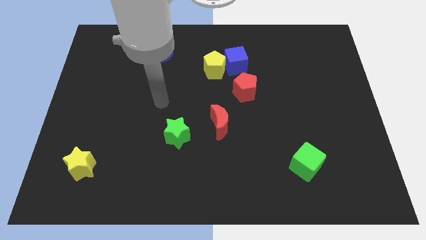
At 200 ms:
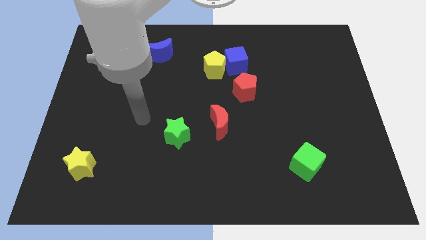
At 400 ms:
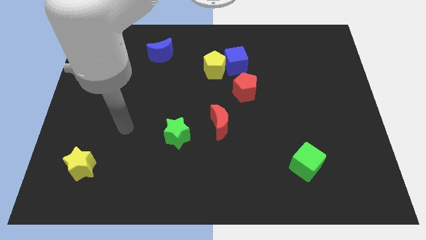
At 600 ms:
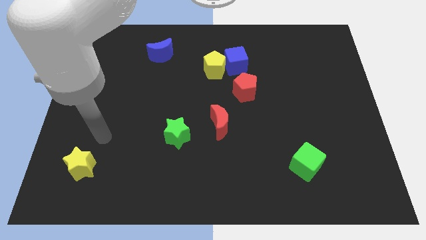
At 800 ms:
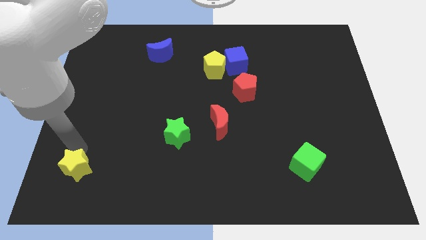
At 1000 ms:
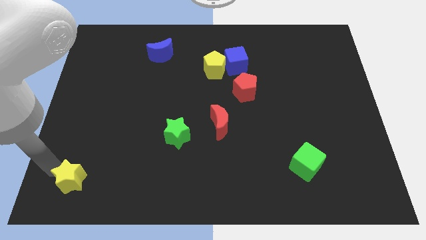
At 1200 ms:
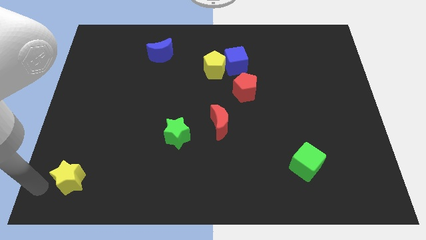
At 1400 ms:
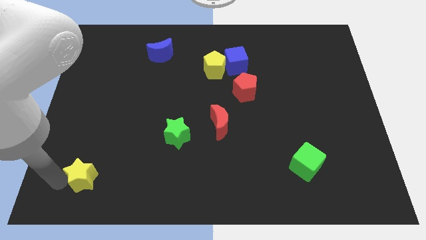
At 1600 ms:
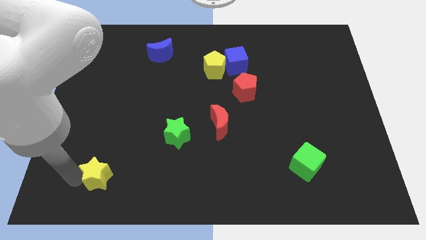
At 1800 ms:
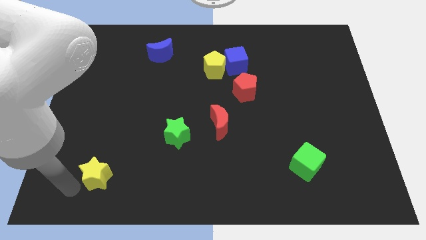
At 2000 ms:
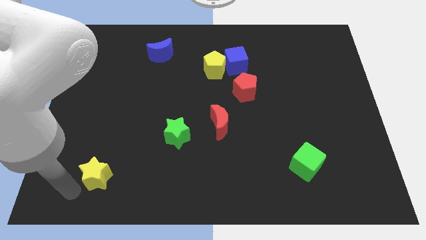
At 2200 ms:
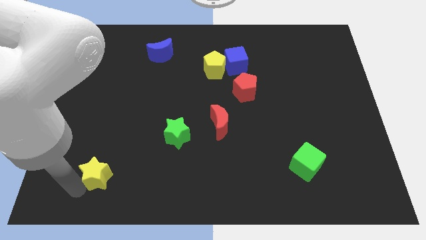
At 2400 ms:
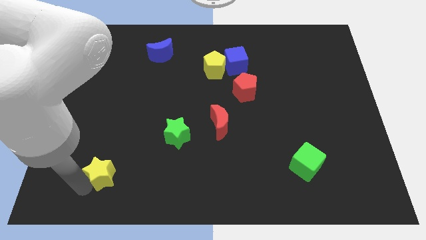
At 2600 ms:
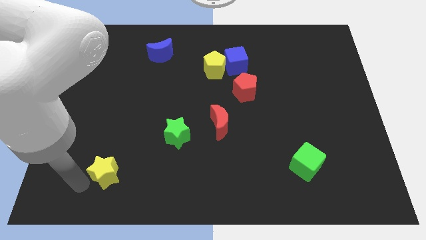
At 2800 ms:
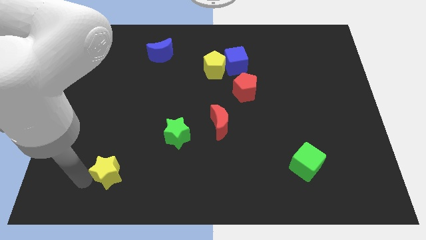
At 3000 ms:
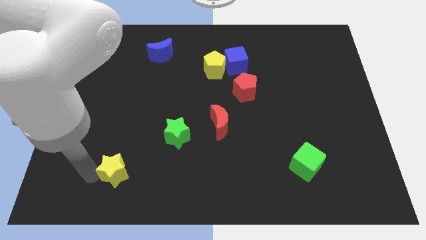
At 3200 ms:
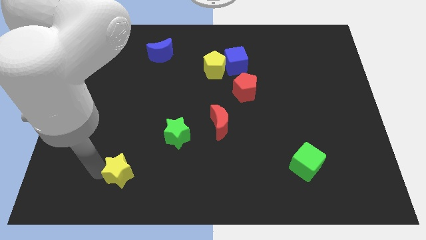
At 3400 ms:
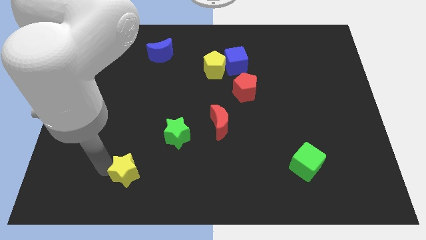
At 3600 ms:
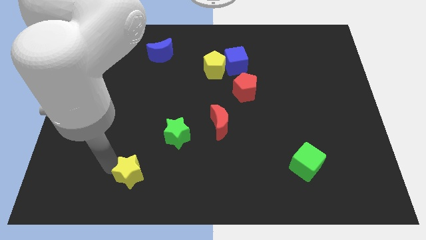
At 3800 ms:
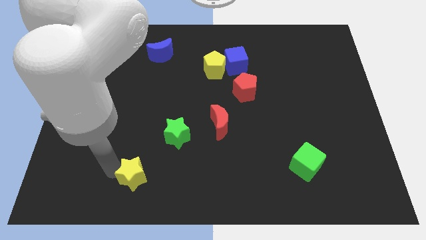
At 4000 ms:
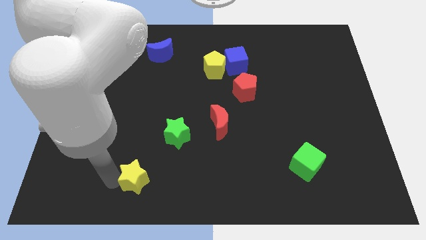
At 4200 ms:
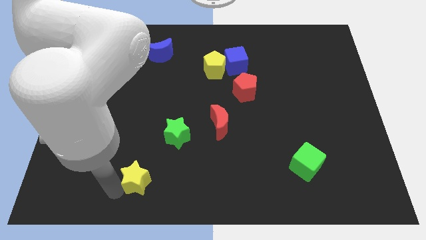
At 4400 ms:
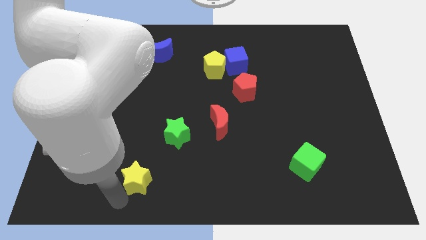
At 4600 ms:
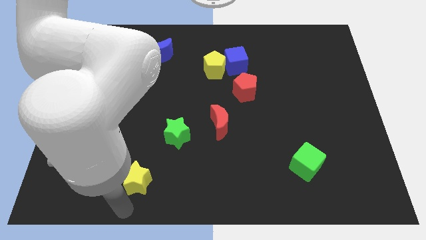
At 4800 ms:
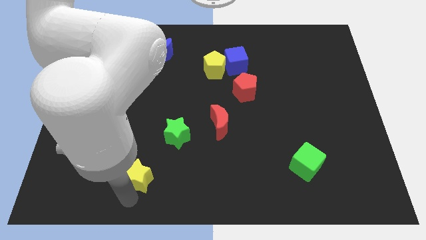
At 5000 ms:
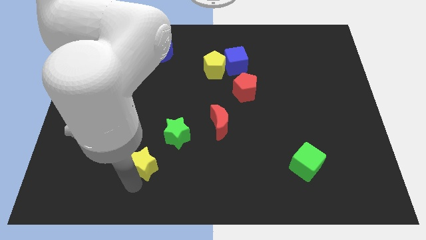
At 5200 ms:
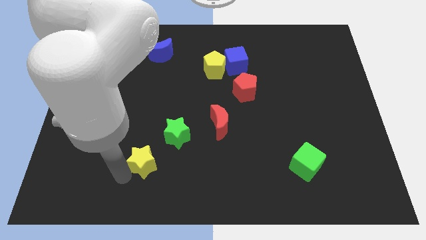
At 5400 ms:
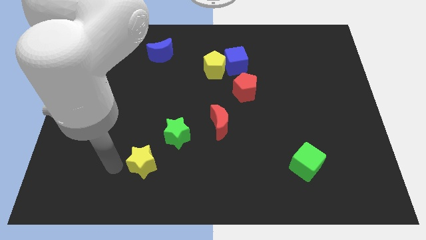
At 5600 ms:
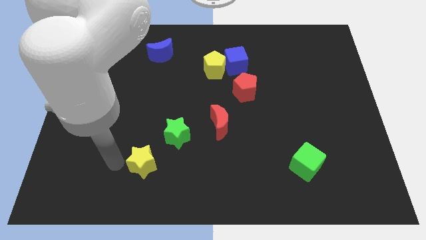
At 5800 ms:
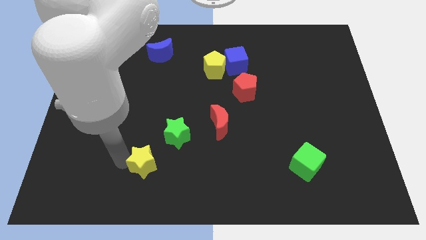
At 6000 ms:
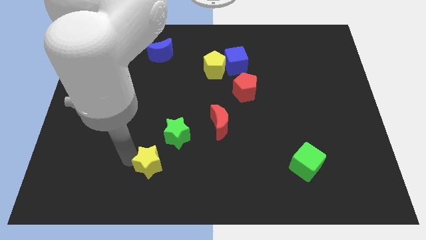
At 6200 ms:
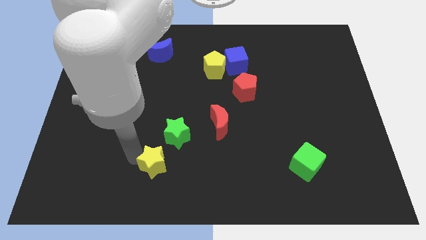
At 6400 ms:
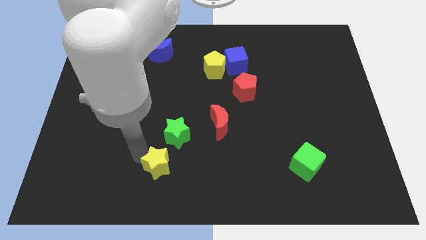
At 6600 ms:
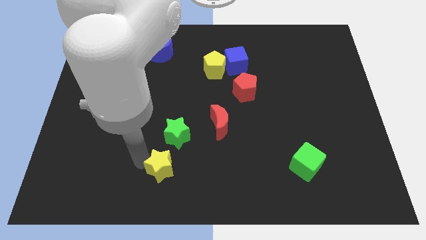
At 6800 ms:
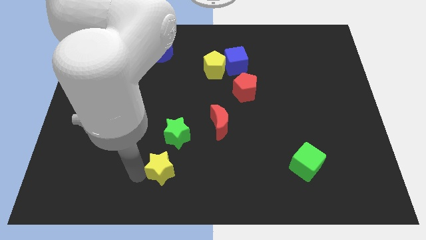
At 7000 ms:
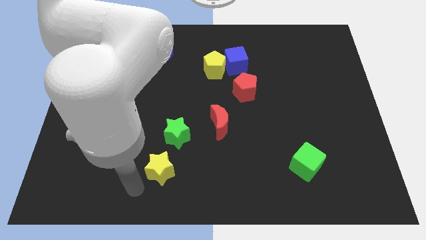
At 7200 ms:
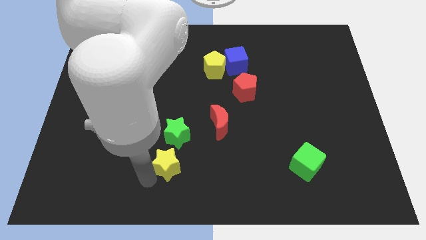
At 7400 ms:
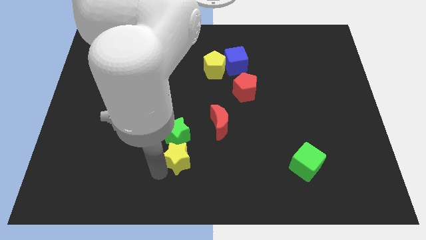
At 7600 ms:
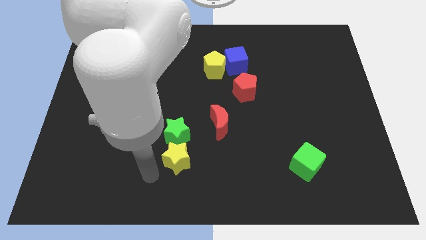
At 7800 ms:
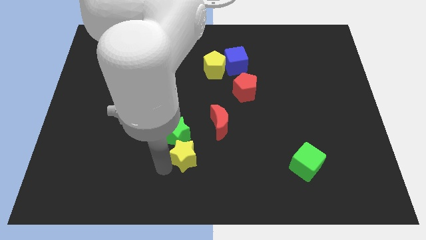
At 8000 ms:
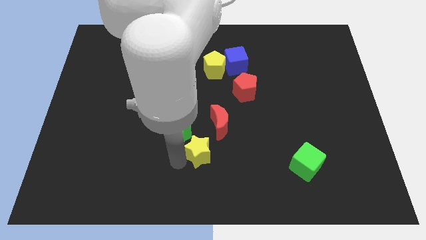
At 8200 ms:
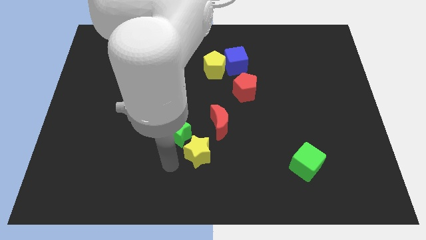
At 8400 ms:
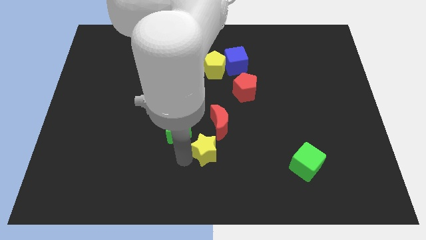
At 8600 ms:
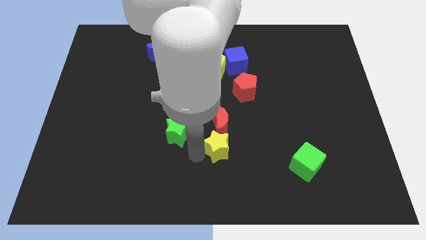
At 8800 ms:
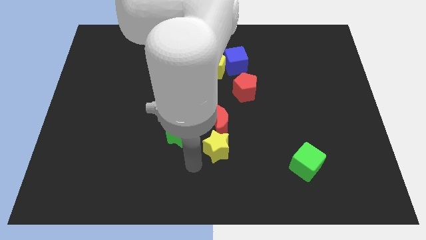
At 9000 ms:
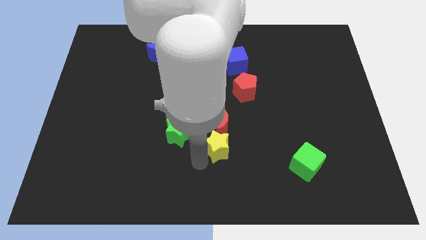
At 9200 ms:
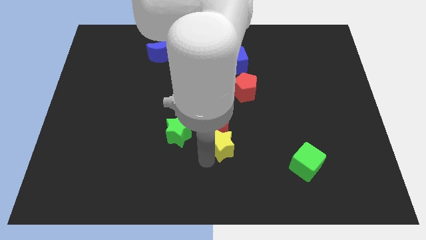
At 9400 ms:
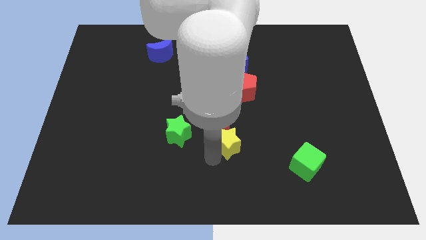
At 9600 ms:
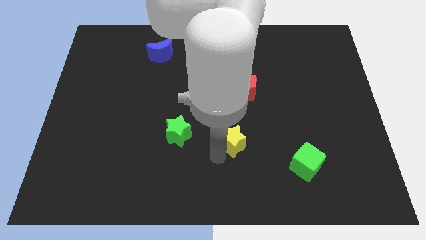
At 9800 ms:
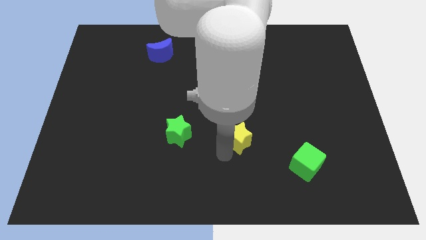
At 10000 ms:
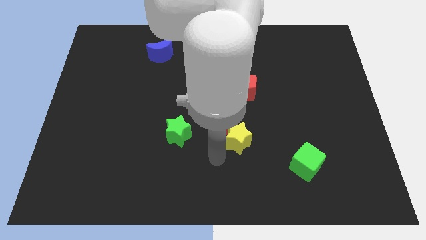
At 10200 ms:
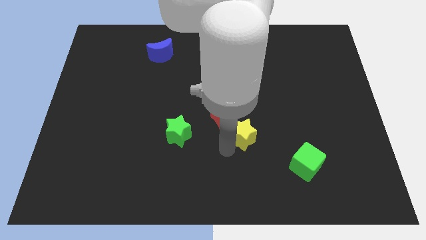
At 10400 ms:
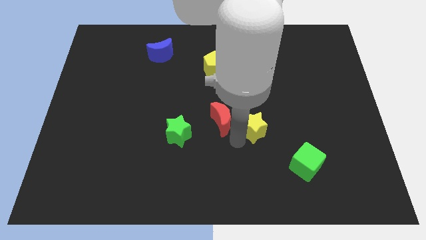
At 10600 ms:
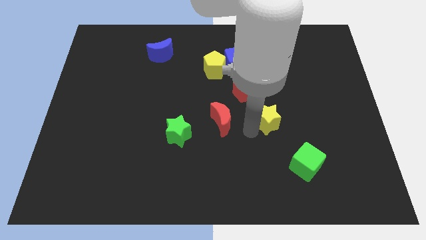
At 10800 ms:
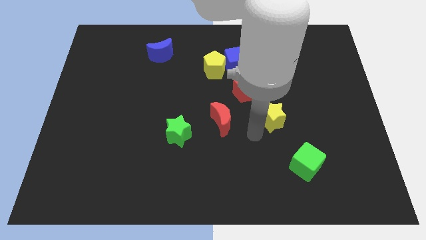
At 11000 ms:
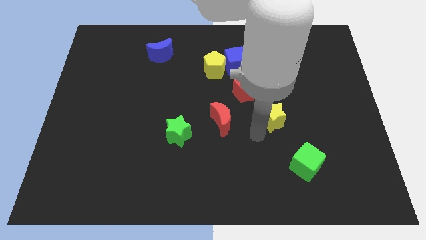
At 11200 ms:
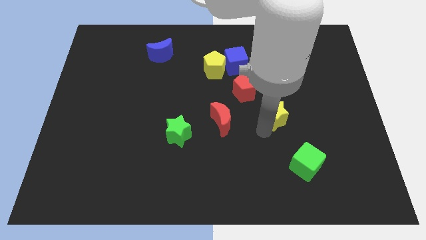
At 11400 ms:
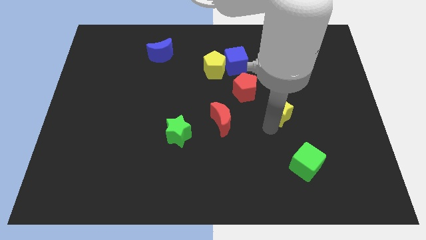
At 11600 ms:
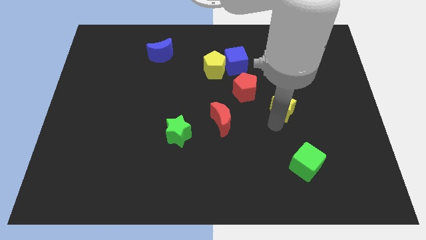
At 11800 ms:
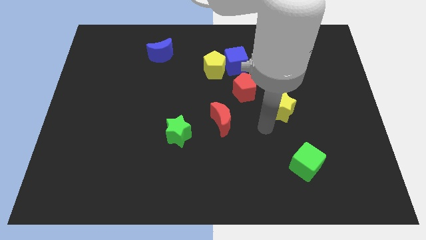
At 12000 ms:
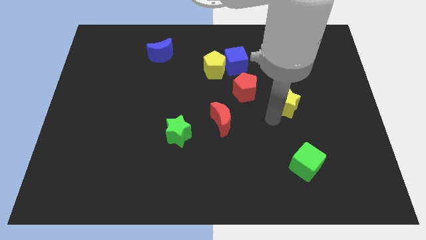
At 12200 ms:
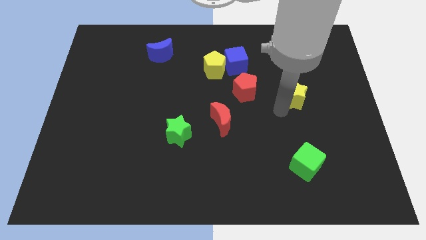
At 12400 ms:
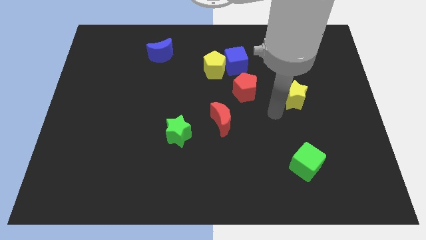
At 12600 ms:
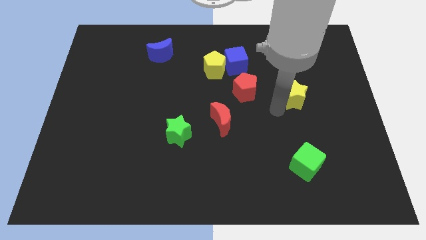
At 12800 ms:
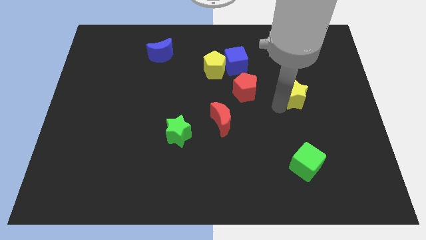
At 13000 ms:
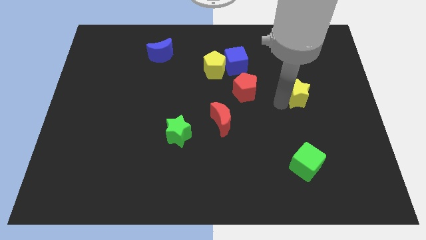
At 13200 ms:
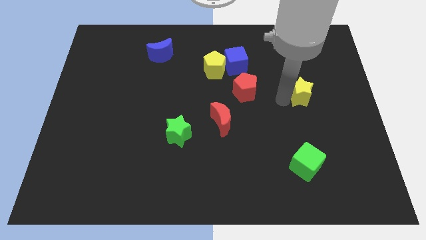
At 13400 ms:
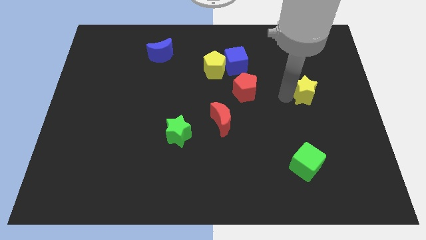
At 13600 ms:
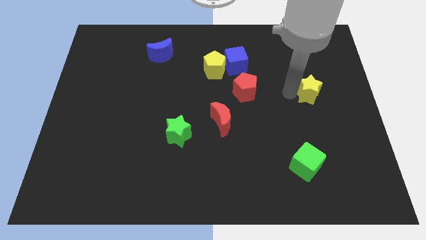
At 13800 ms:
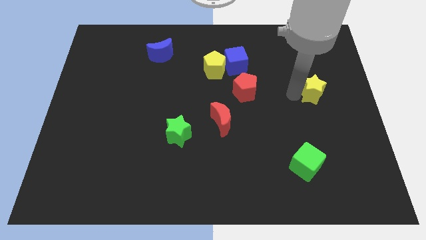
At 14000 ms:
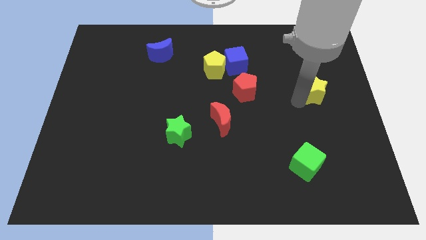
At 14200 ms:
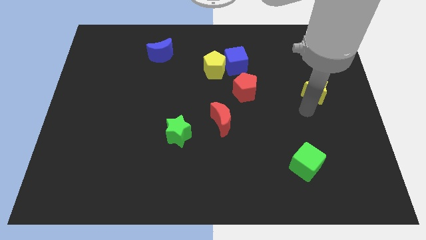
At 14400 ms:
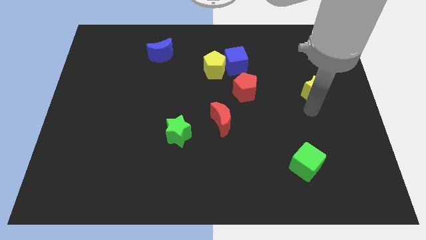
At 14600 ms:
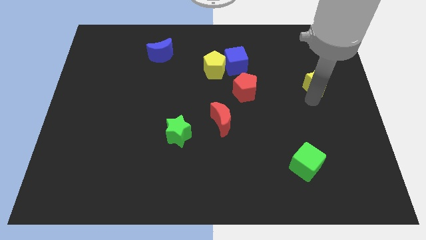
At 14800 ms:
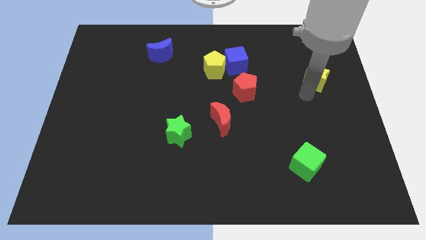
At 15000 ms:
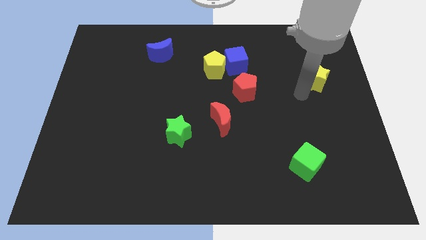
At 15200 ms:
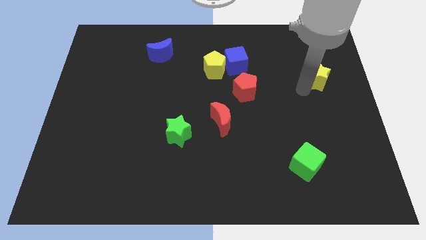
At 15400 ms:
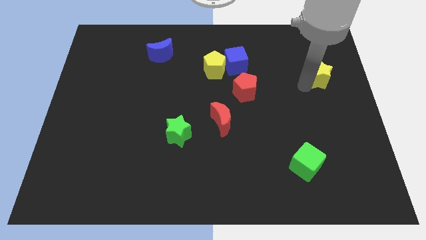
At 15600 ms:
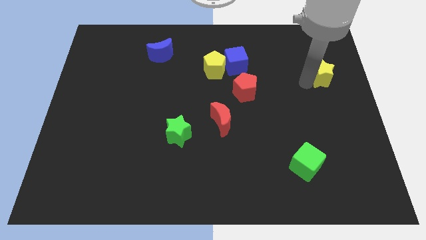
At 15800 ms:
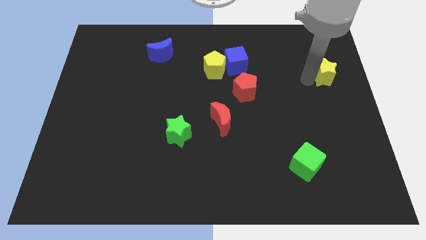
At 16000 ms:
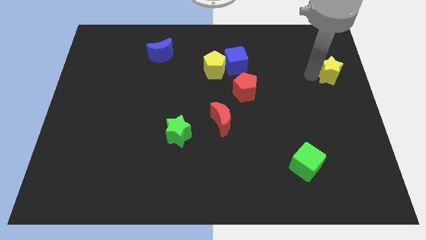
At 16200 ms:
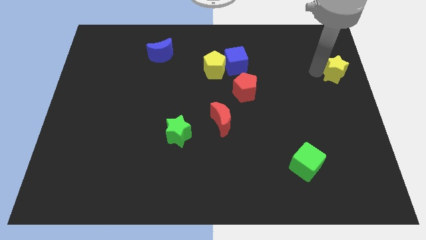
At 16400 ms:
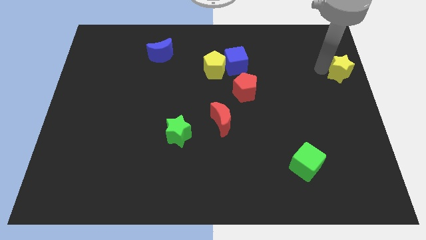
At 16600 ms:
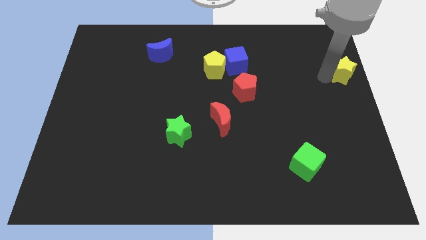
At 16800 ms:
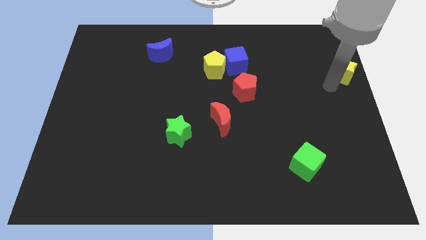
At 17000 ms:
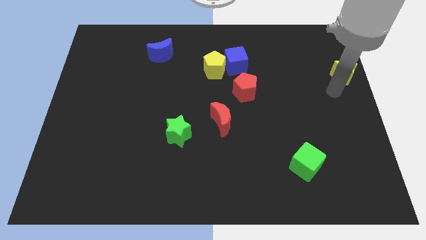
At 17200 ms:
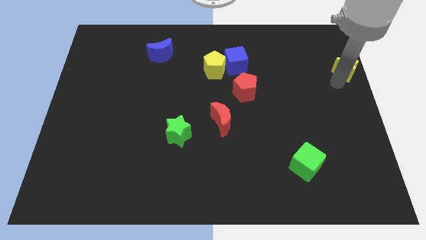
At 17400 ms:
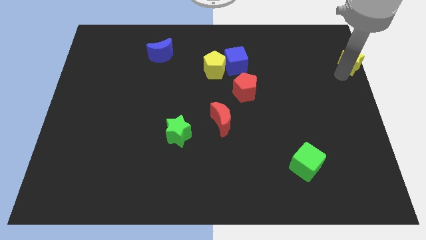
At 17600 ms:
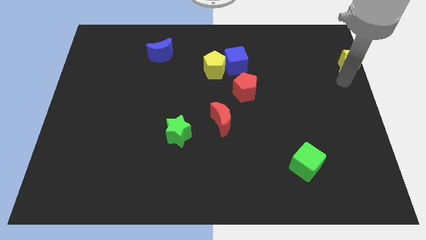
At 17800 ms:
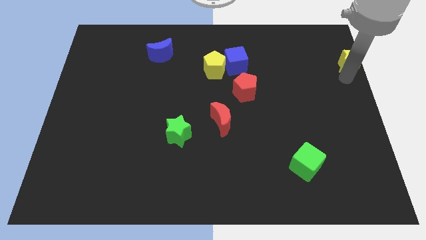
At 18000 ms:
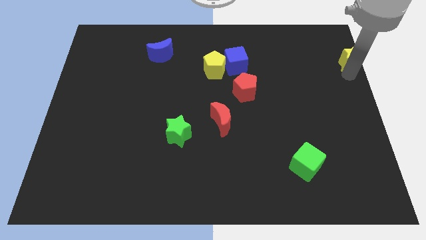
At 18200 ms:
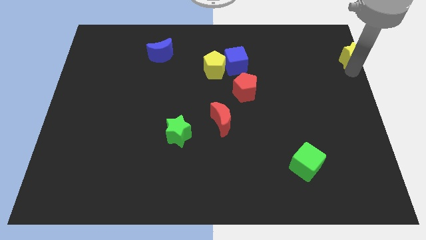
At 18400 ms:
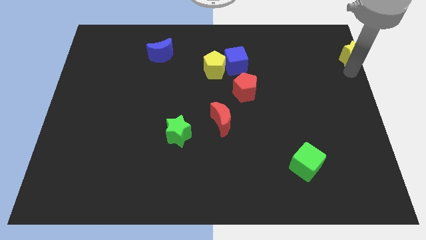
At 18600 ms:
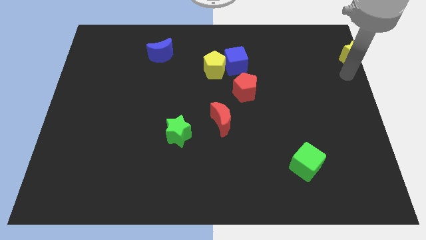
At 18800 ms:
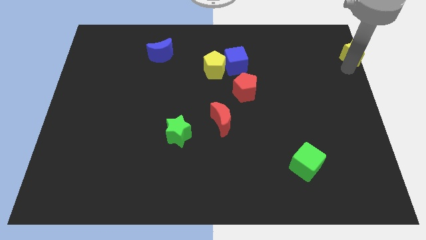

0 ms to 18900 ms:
move the yellow star to the top right corner
